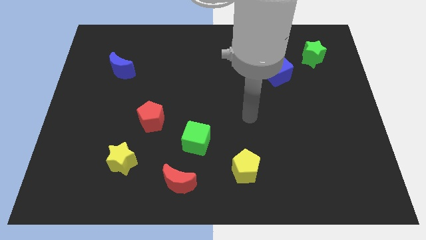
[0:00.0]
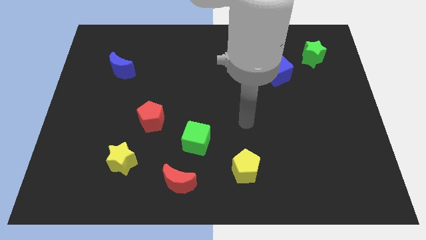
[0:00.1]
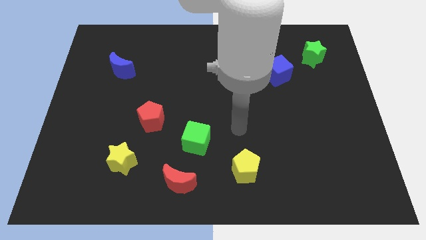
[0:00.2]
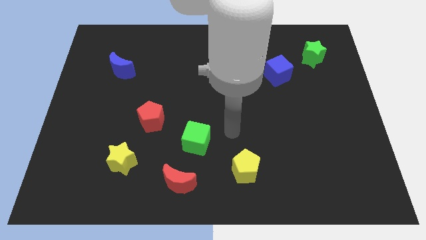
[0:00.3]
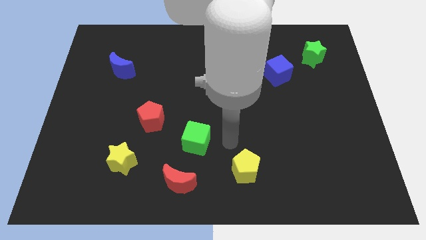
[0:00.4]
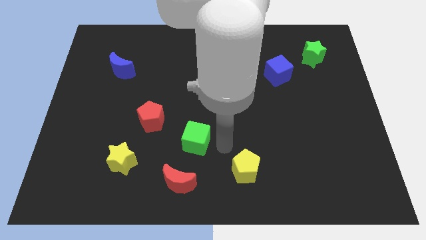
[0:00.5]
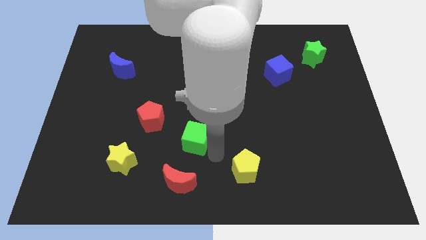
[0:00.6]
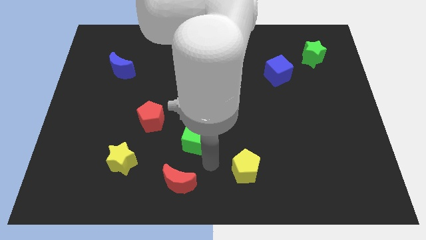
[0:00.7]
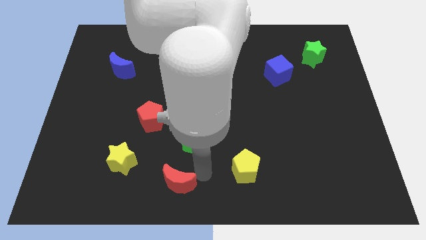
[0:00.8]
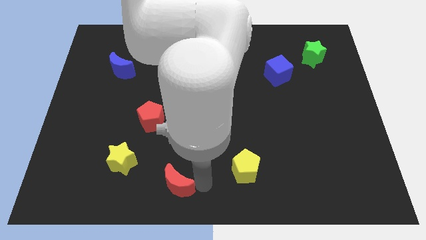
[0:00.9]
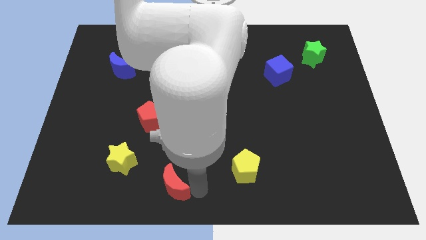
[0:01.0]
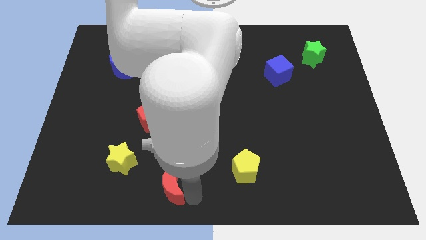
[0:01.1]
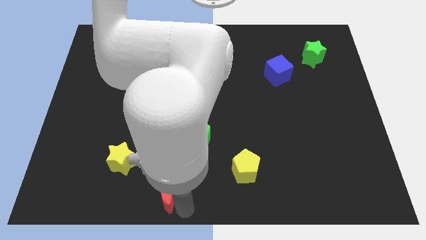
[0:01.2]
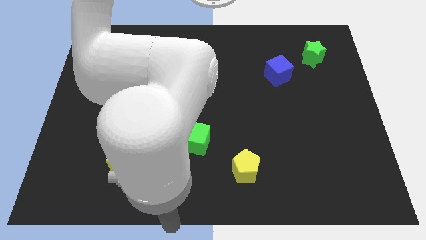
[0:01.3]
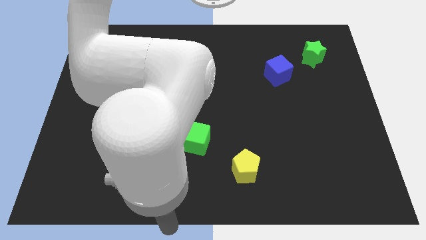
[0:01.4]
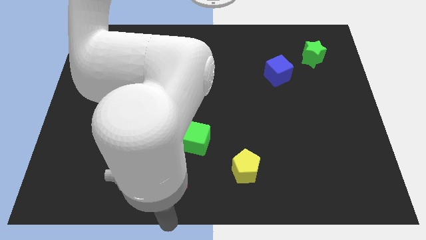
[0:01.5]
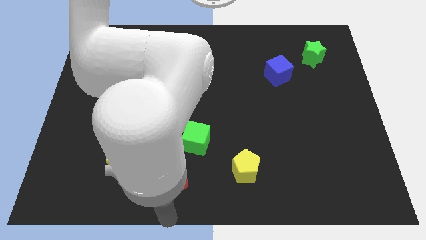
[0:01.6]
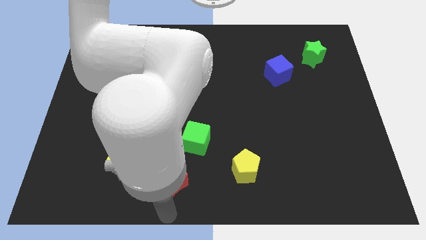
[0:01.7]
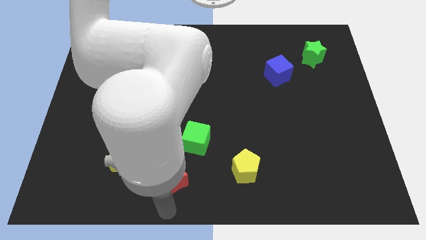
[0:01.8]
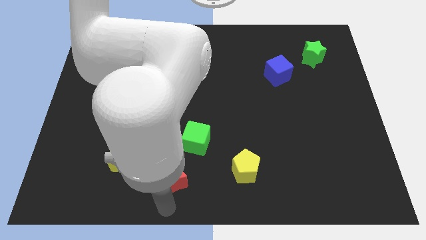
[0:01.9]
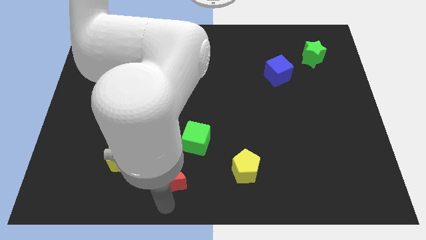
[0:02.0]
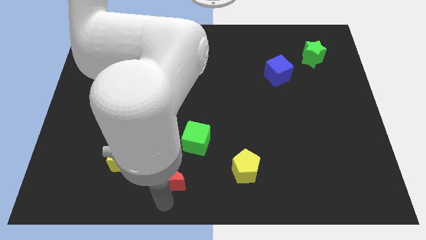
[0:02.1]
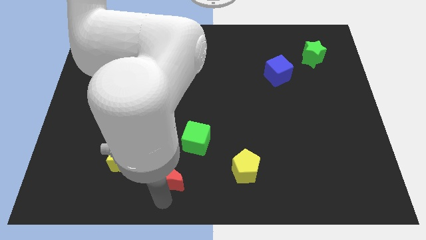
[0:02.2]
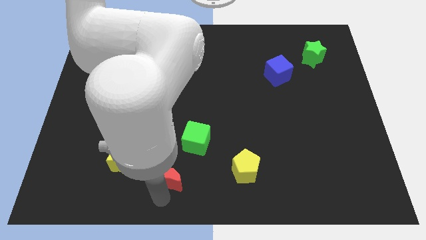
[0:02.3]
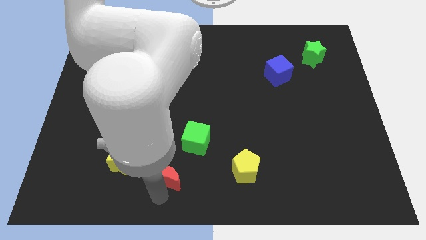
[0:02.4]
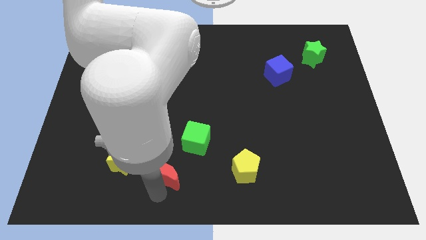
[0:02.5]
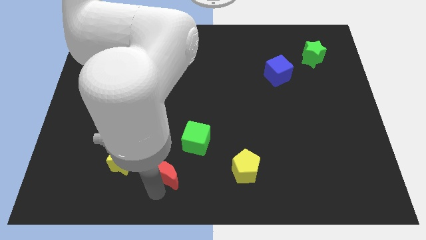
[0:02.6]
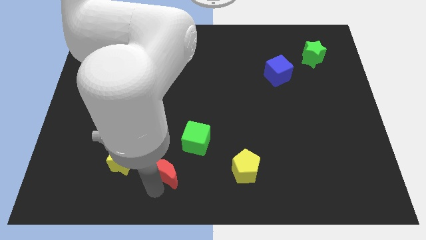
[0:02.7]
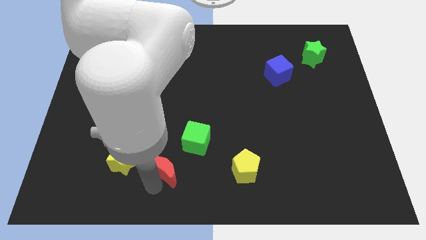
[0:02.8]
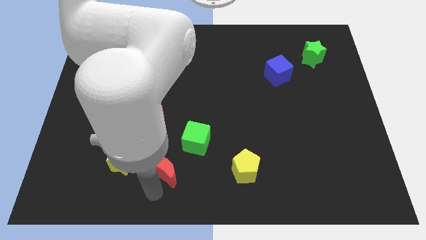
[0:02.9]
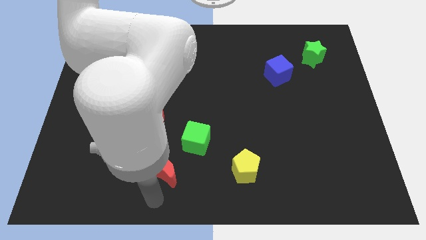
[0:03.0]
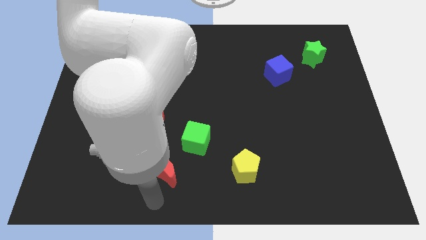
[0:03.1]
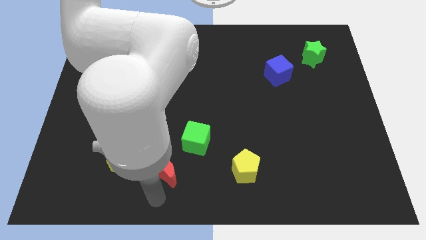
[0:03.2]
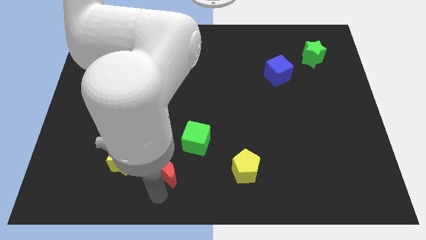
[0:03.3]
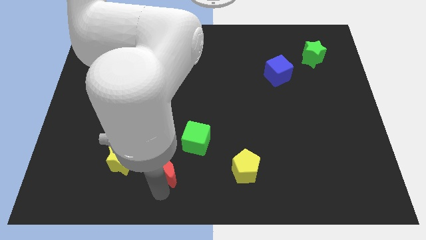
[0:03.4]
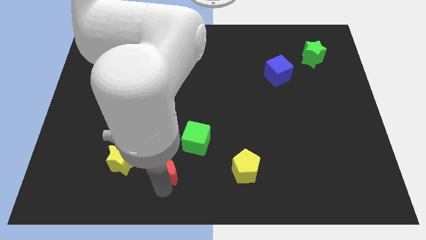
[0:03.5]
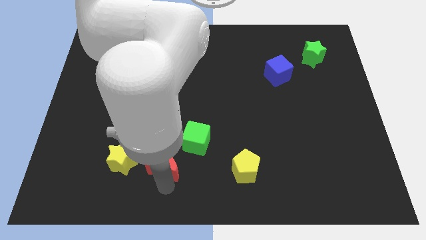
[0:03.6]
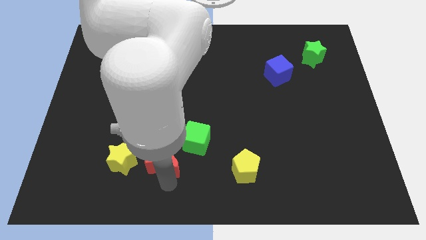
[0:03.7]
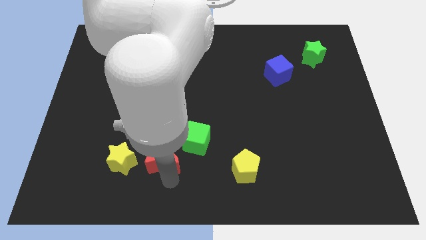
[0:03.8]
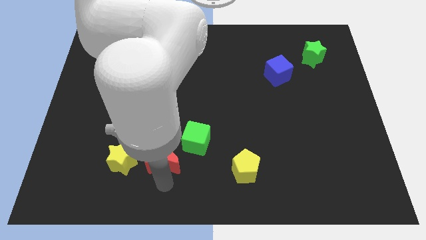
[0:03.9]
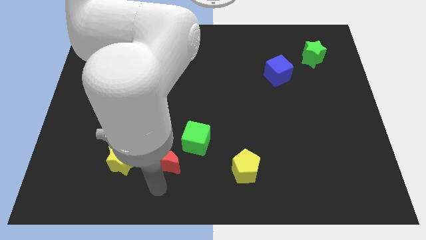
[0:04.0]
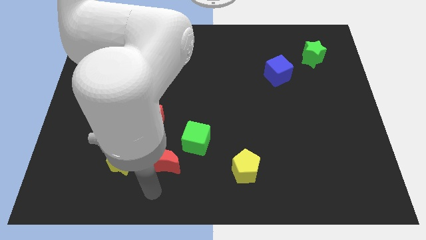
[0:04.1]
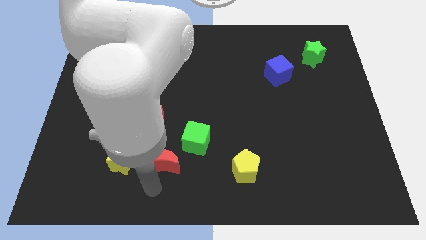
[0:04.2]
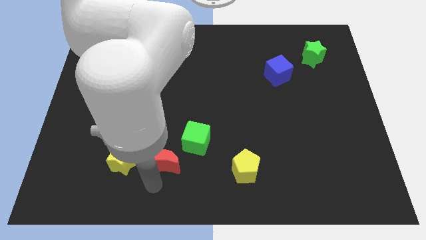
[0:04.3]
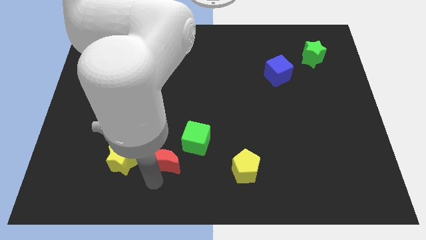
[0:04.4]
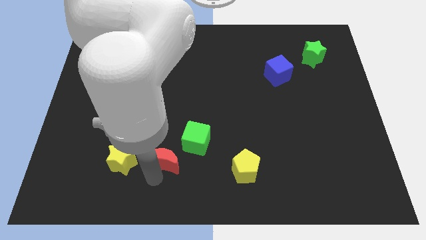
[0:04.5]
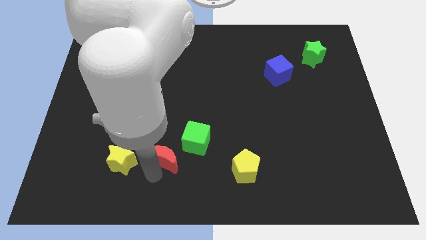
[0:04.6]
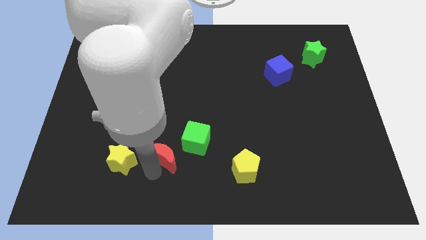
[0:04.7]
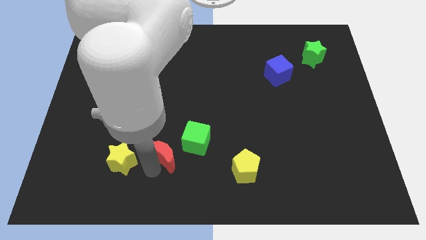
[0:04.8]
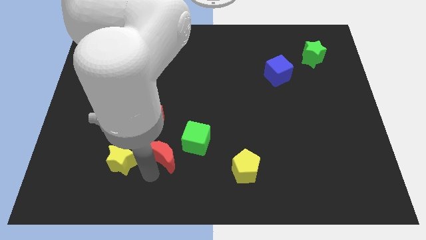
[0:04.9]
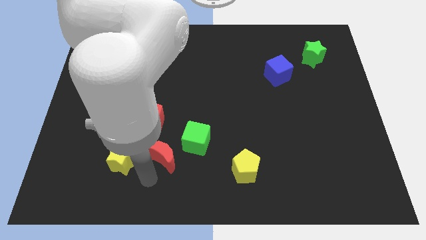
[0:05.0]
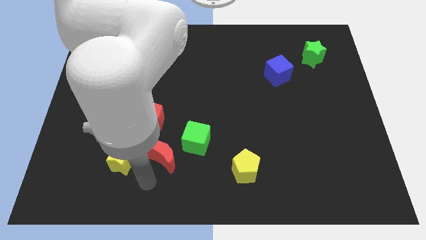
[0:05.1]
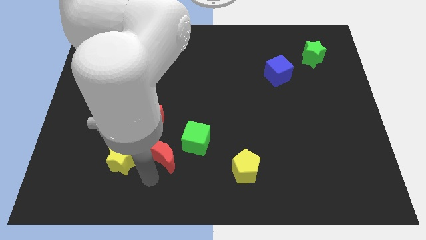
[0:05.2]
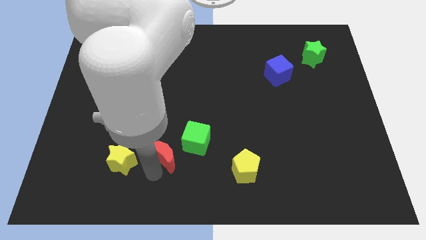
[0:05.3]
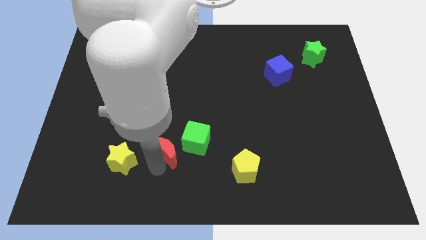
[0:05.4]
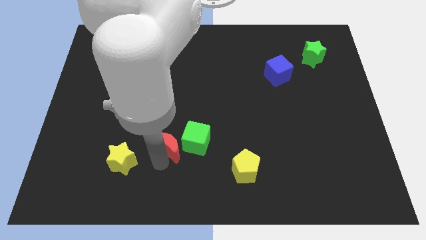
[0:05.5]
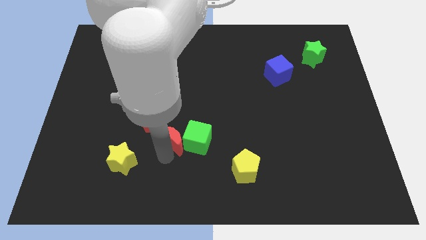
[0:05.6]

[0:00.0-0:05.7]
push the red moon diagonally up and to the left of the green cube

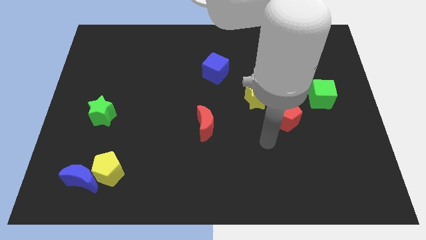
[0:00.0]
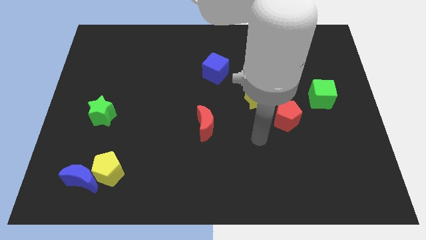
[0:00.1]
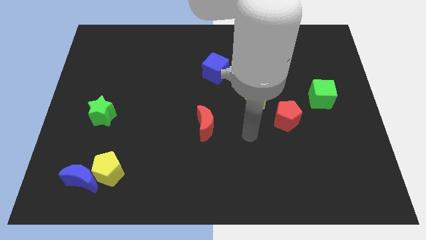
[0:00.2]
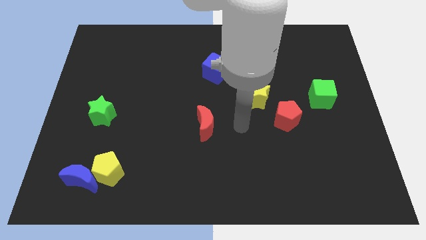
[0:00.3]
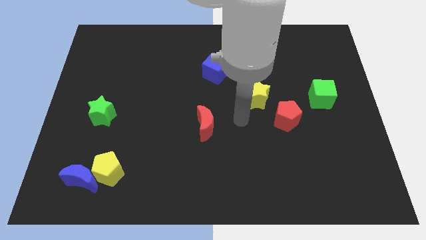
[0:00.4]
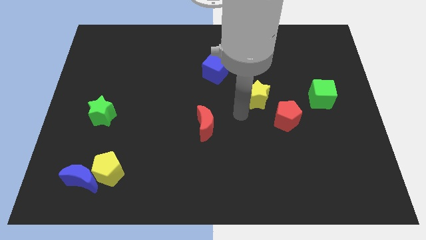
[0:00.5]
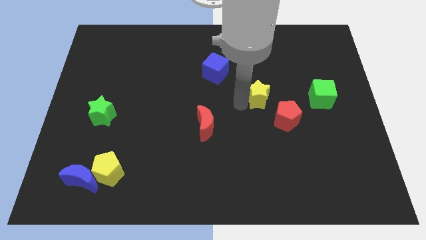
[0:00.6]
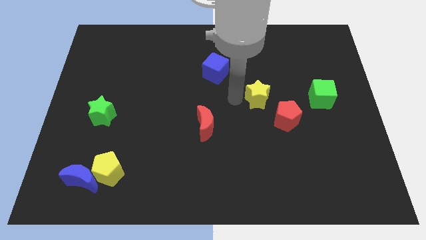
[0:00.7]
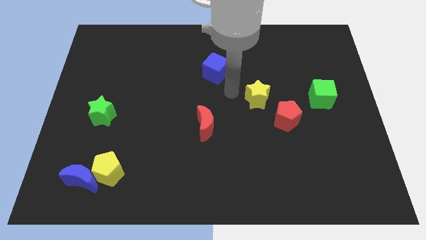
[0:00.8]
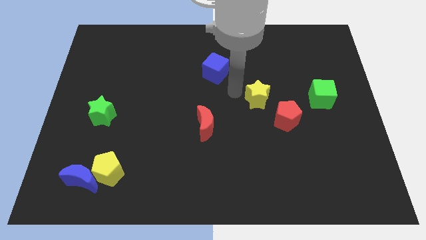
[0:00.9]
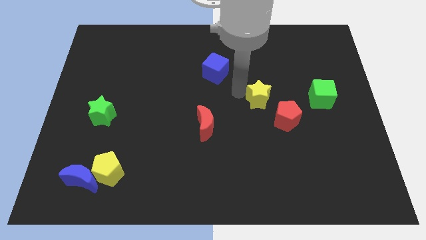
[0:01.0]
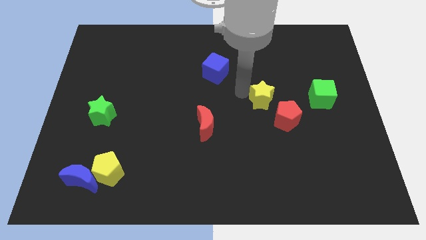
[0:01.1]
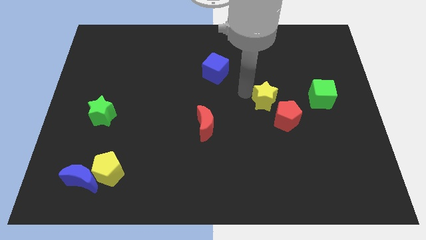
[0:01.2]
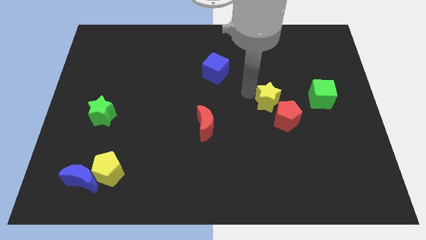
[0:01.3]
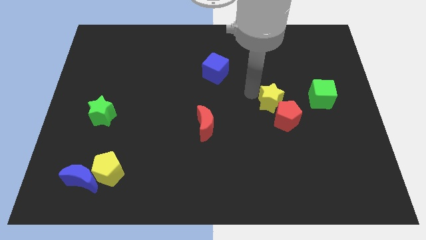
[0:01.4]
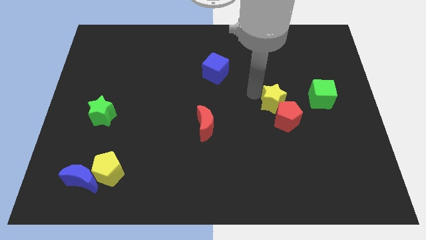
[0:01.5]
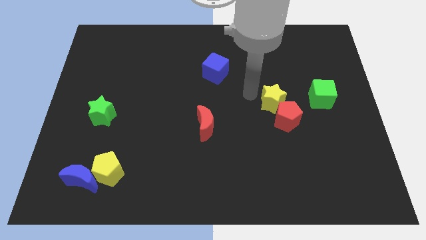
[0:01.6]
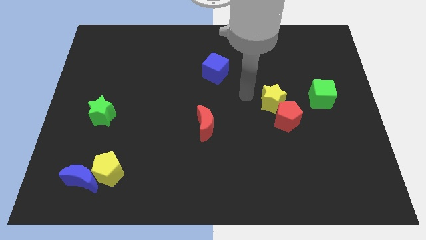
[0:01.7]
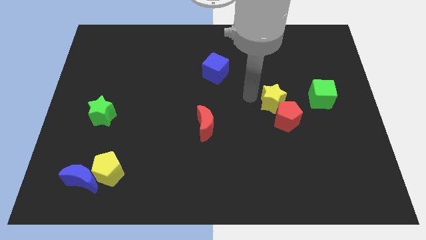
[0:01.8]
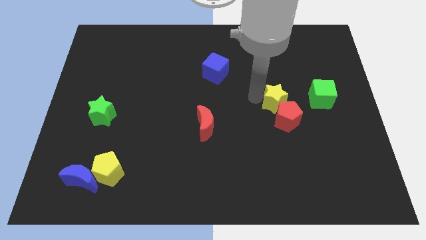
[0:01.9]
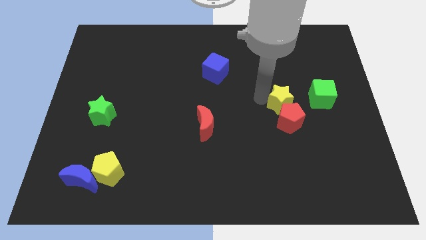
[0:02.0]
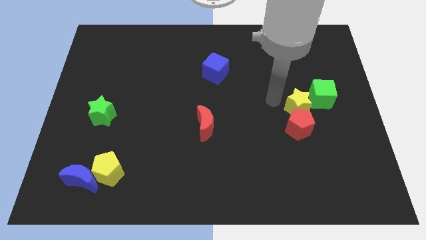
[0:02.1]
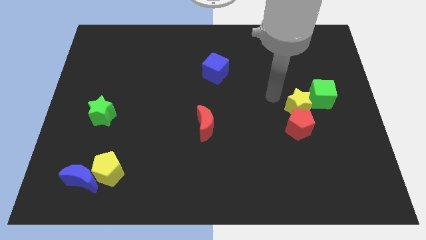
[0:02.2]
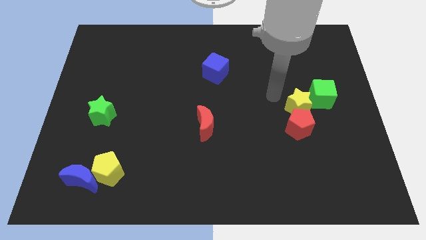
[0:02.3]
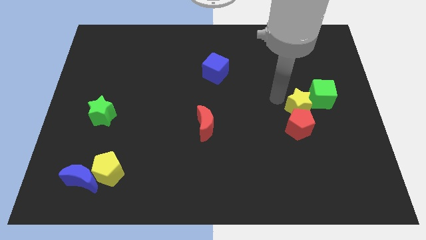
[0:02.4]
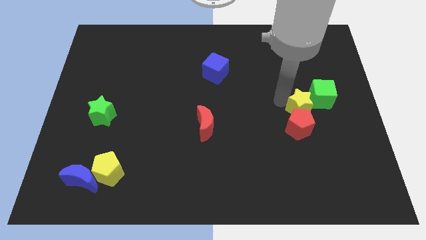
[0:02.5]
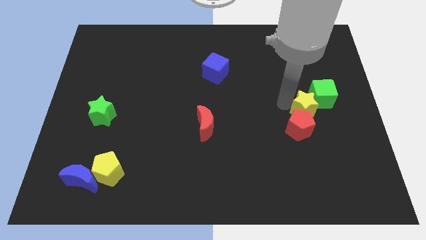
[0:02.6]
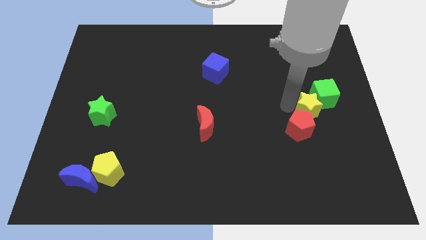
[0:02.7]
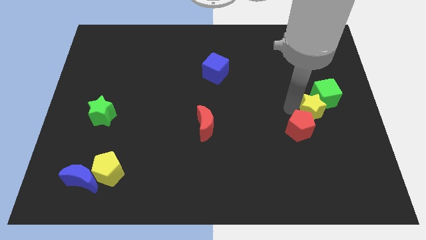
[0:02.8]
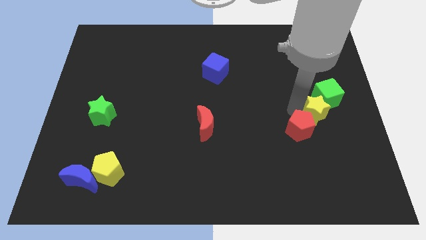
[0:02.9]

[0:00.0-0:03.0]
put the yellow star to the right side of the red pentagon
